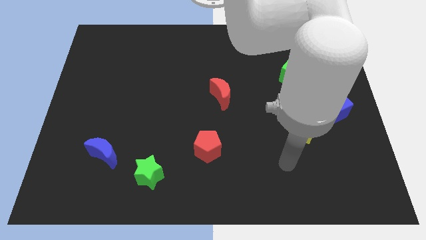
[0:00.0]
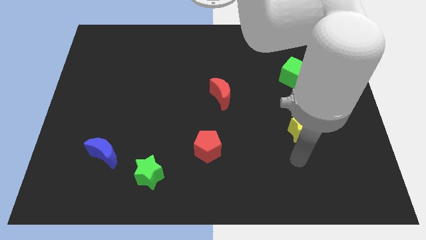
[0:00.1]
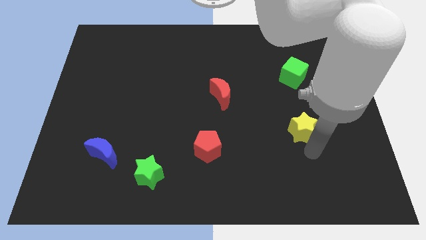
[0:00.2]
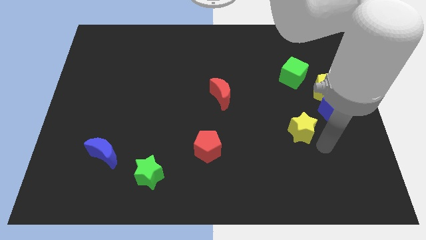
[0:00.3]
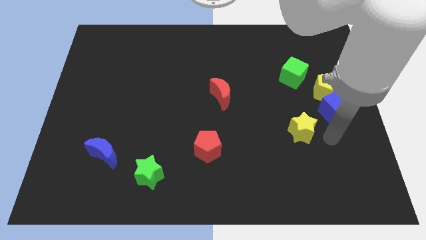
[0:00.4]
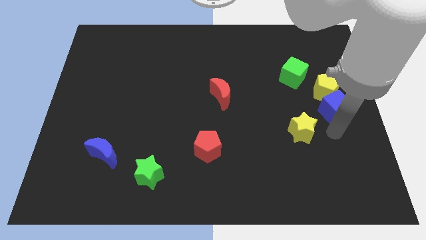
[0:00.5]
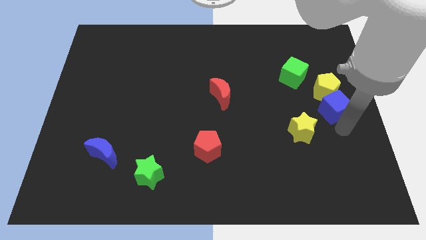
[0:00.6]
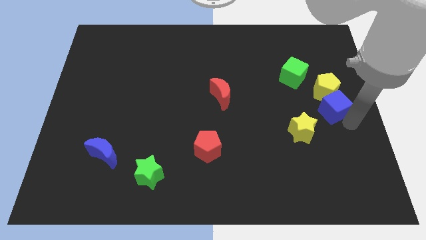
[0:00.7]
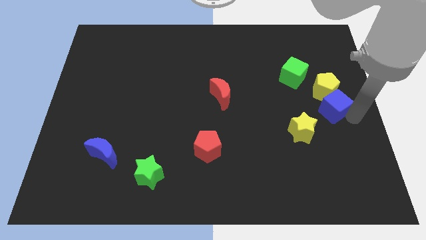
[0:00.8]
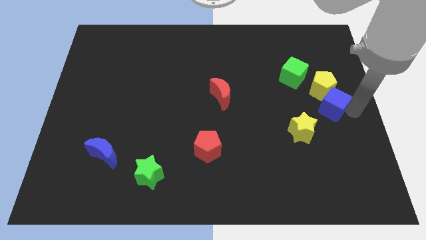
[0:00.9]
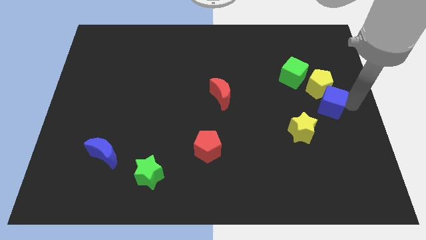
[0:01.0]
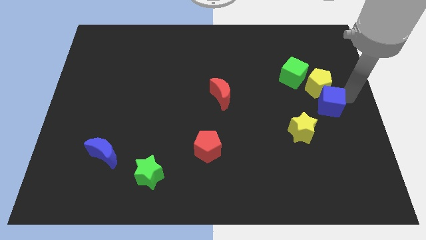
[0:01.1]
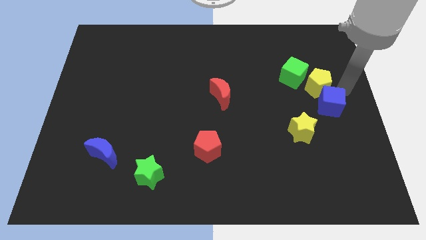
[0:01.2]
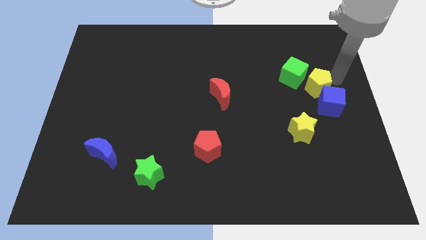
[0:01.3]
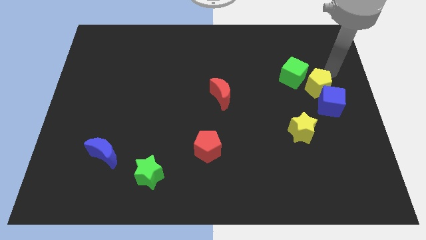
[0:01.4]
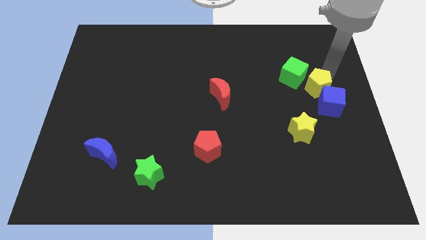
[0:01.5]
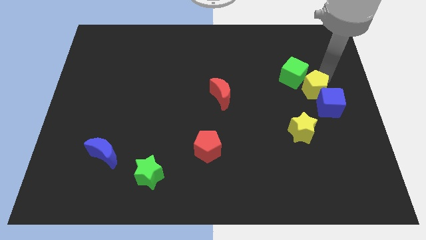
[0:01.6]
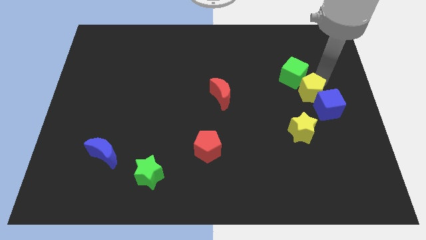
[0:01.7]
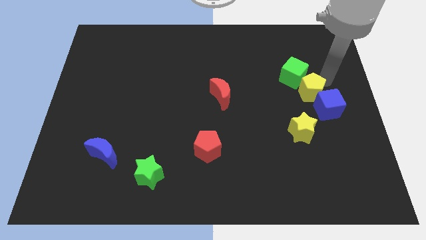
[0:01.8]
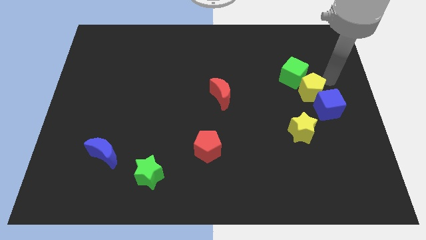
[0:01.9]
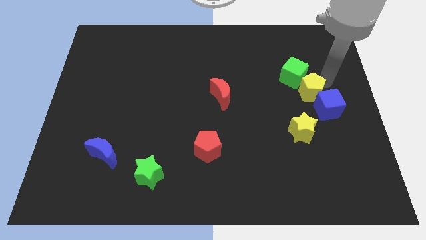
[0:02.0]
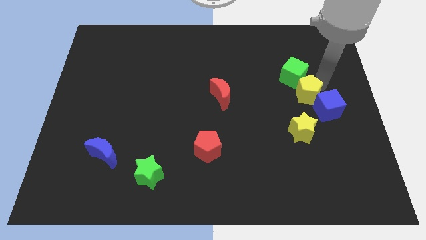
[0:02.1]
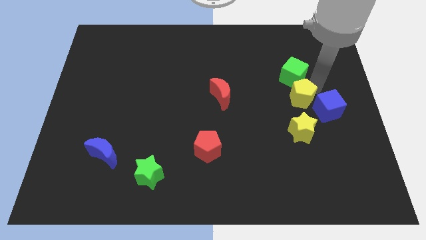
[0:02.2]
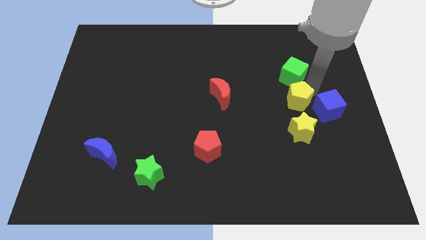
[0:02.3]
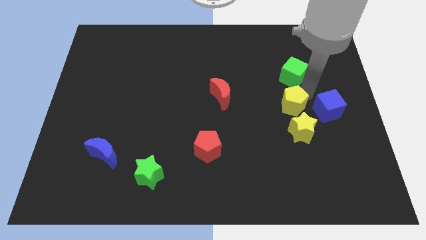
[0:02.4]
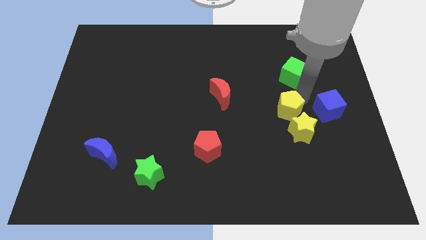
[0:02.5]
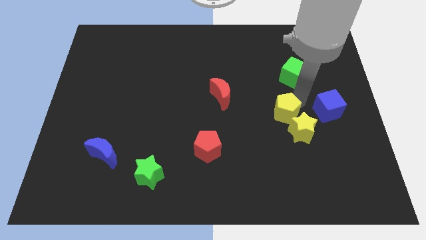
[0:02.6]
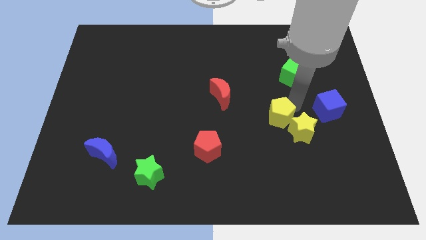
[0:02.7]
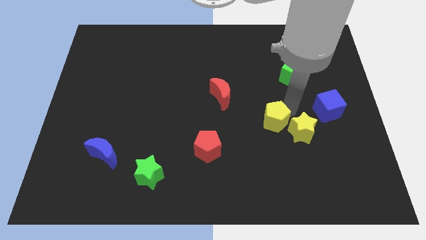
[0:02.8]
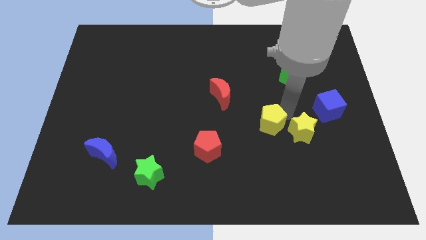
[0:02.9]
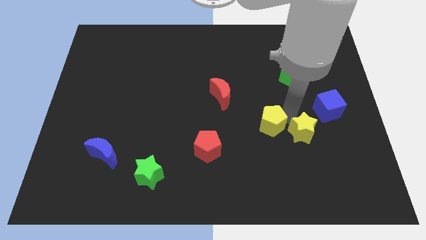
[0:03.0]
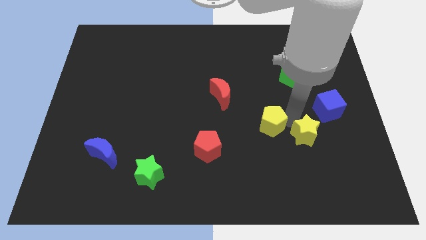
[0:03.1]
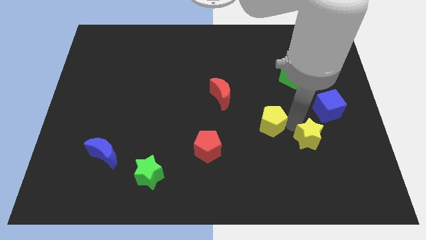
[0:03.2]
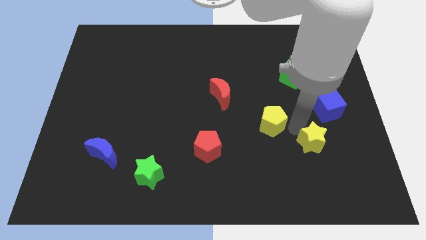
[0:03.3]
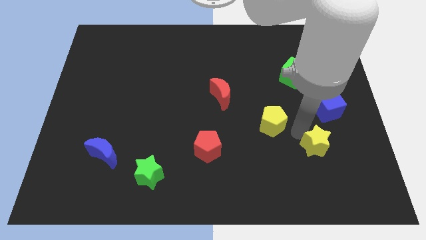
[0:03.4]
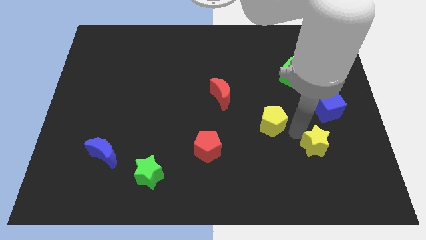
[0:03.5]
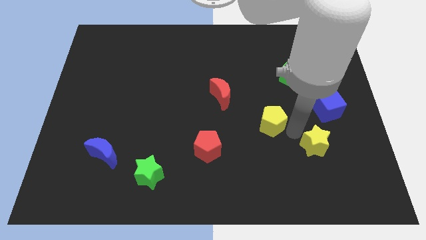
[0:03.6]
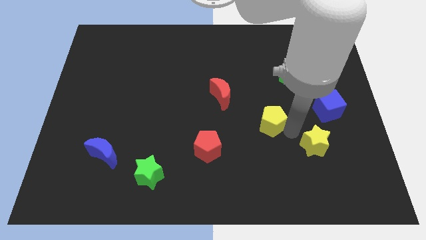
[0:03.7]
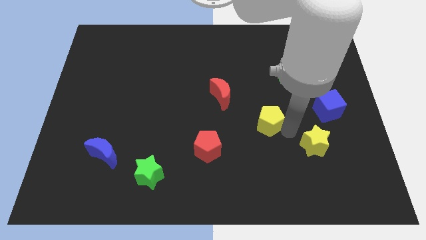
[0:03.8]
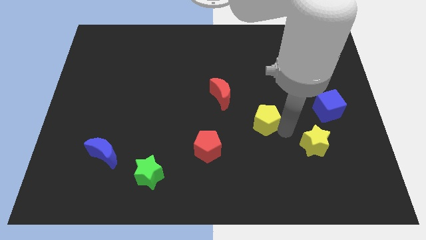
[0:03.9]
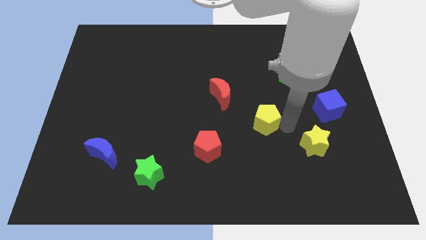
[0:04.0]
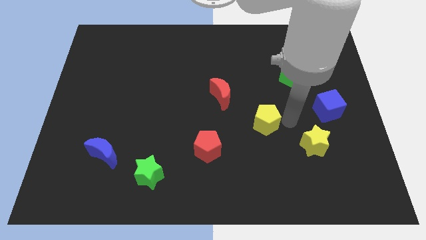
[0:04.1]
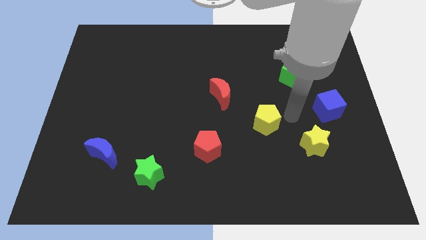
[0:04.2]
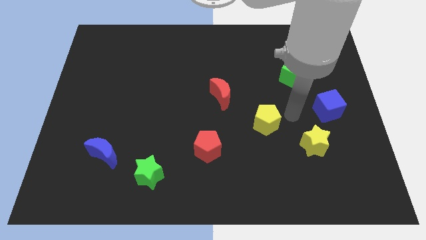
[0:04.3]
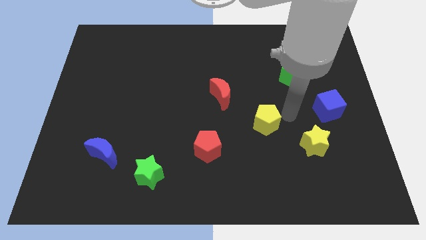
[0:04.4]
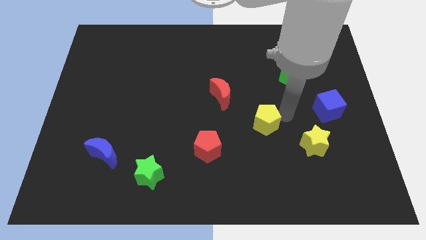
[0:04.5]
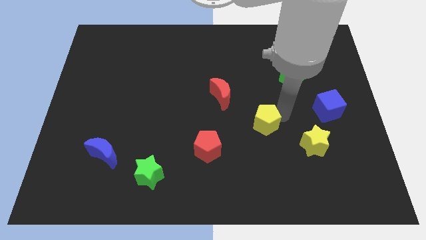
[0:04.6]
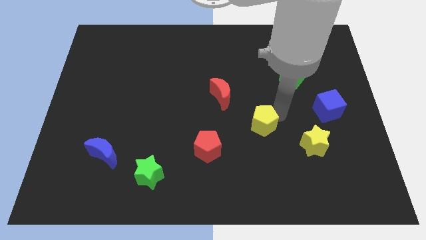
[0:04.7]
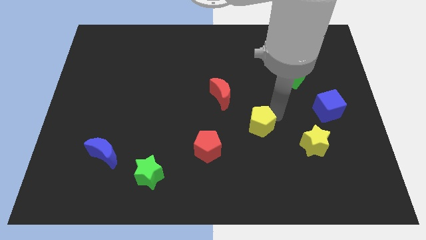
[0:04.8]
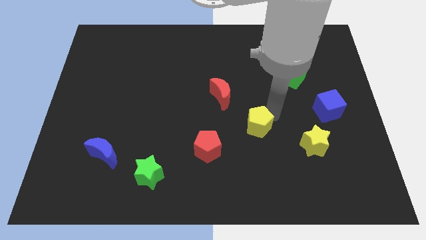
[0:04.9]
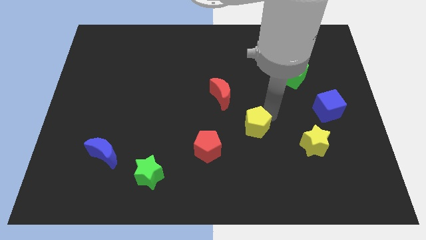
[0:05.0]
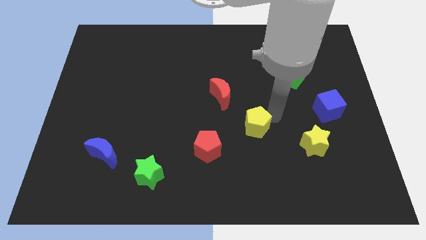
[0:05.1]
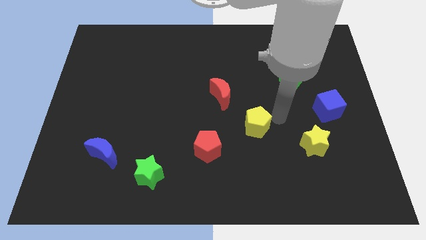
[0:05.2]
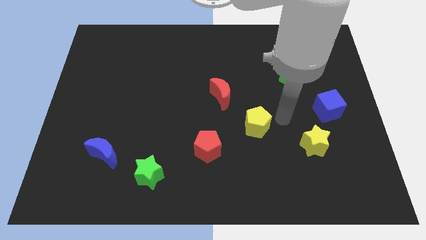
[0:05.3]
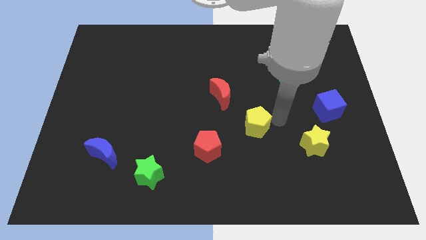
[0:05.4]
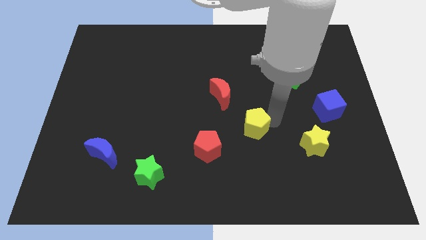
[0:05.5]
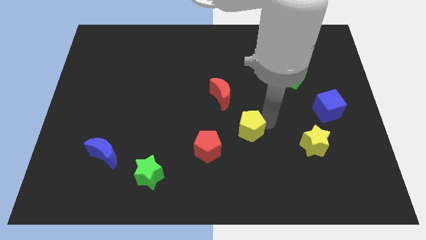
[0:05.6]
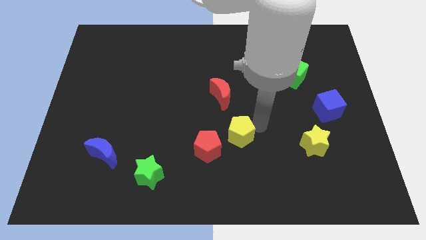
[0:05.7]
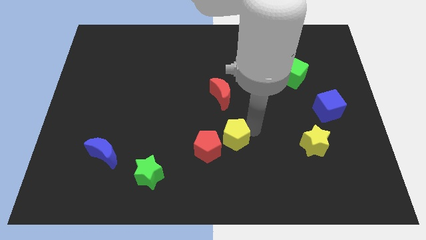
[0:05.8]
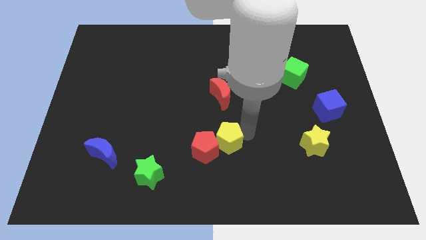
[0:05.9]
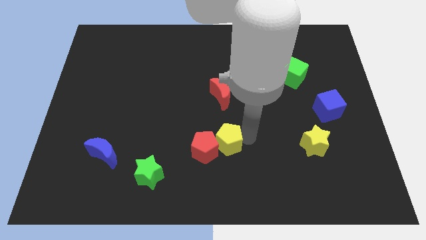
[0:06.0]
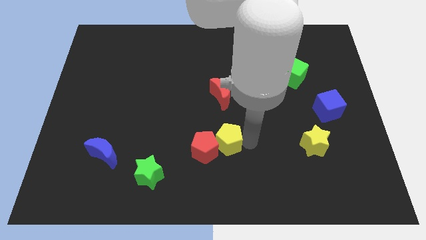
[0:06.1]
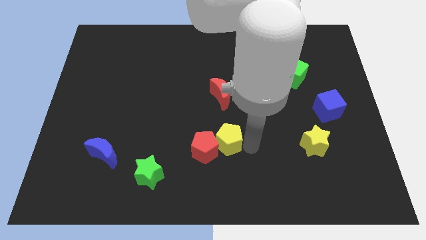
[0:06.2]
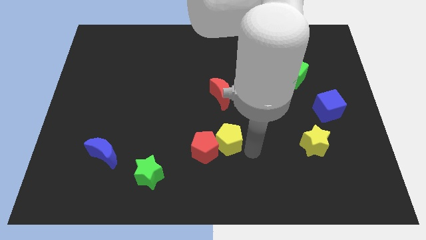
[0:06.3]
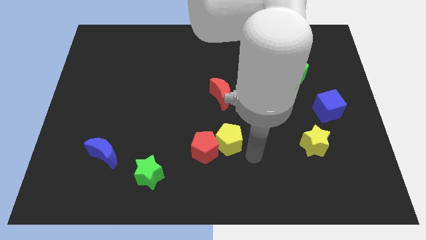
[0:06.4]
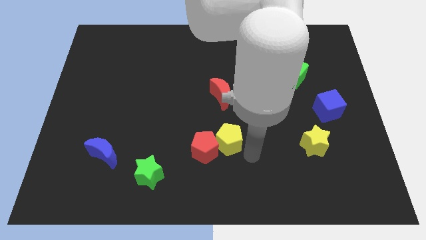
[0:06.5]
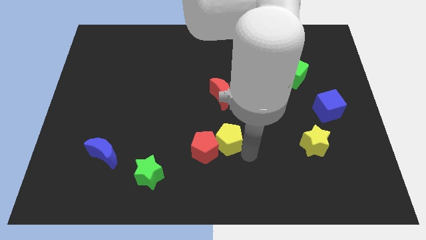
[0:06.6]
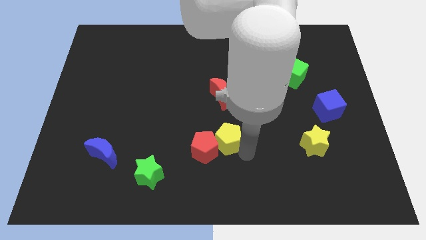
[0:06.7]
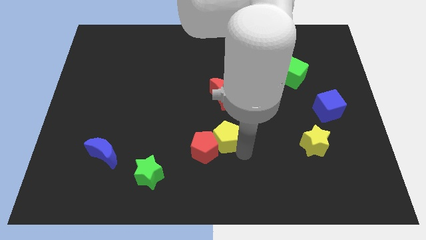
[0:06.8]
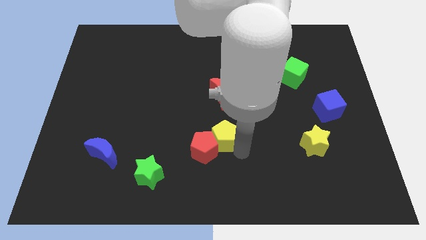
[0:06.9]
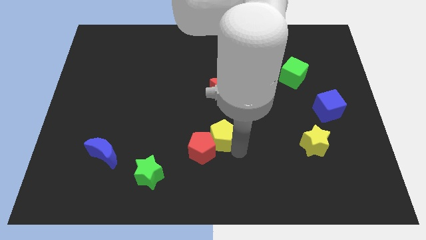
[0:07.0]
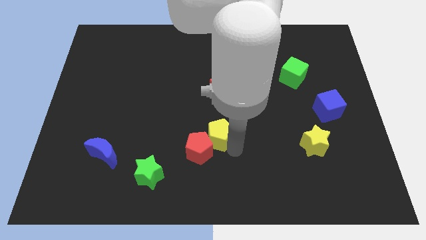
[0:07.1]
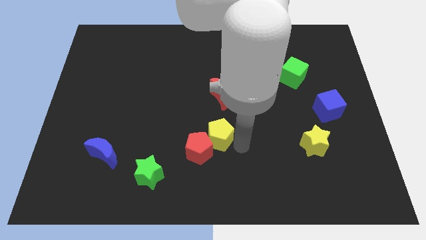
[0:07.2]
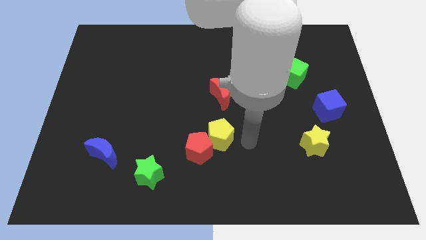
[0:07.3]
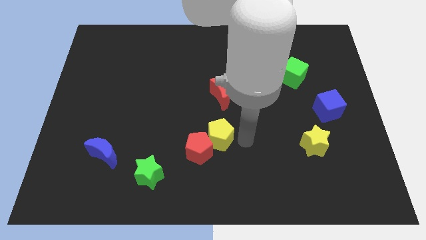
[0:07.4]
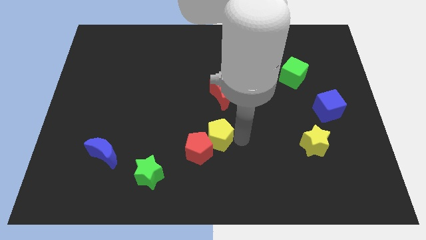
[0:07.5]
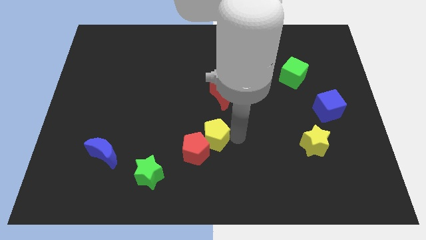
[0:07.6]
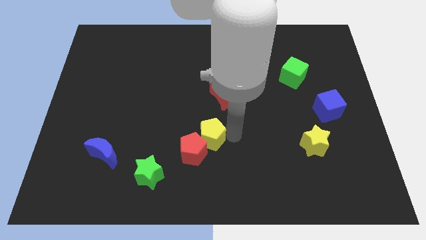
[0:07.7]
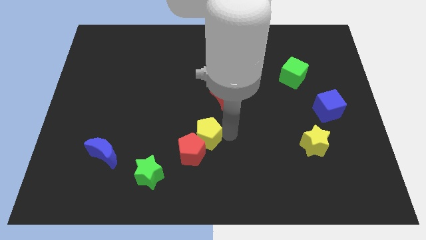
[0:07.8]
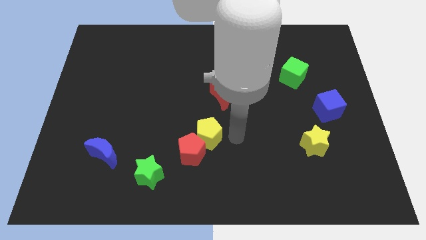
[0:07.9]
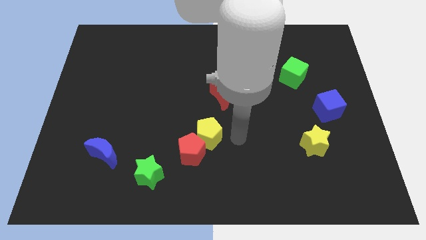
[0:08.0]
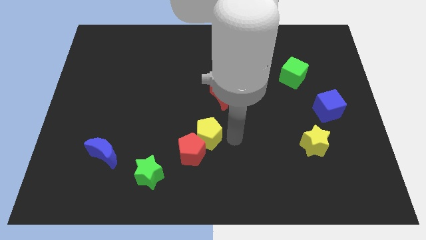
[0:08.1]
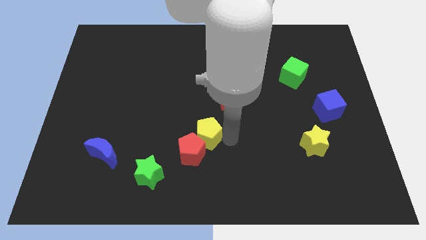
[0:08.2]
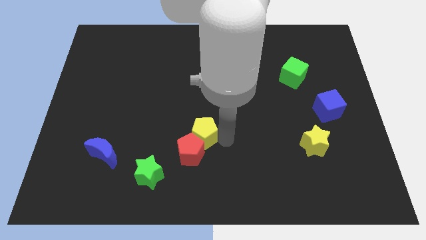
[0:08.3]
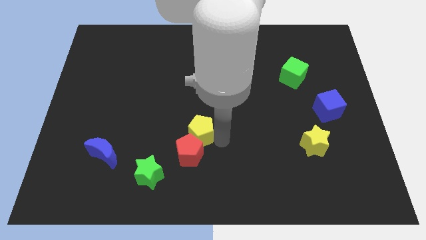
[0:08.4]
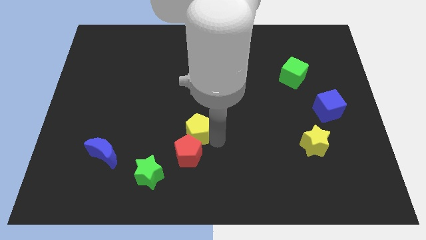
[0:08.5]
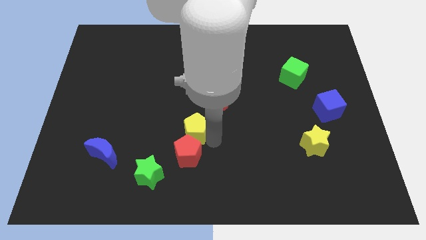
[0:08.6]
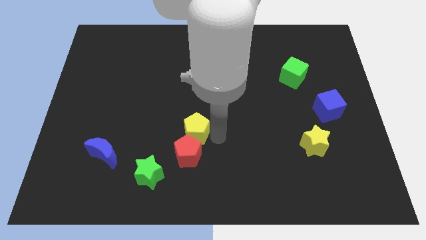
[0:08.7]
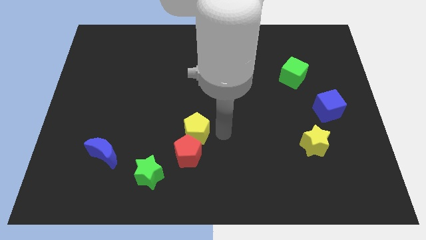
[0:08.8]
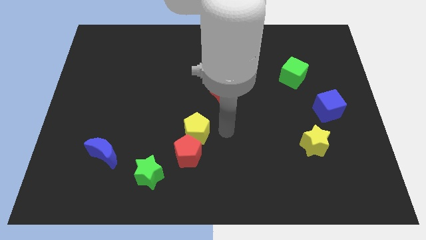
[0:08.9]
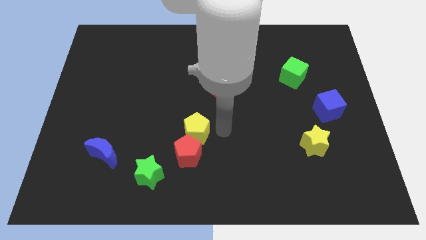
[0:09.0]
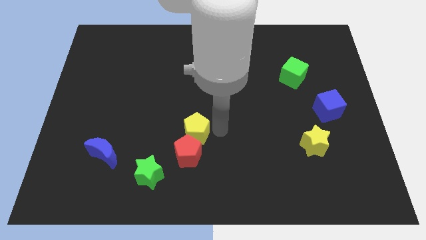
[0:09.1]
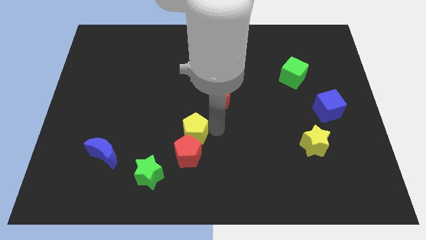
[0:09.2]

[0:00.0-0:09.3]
slide the yellow pentagon to the top left side of the red pentagon
